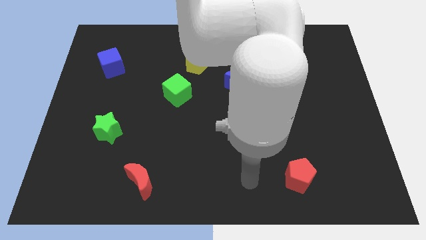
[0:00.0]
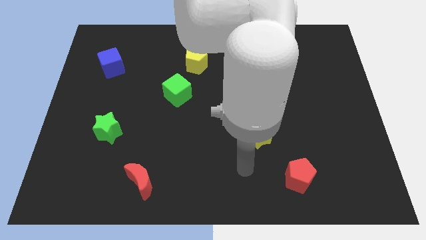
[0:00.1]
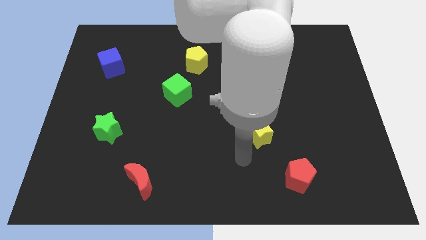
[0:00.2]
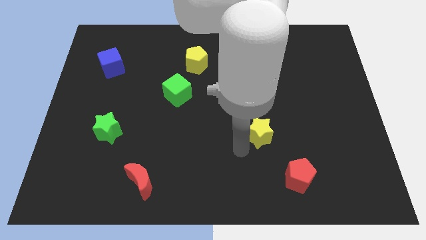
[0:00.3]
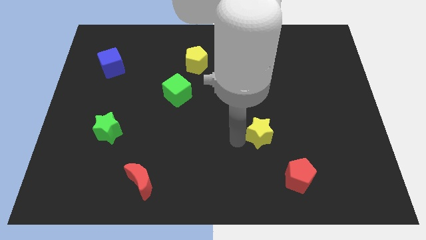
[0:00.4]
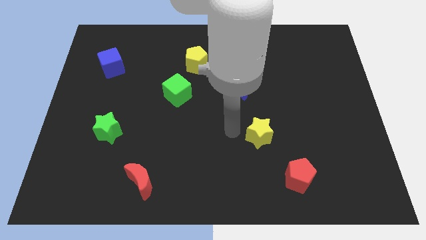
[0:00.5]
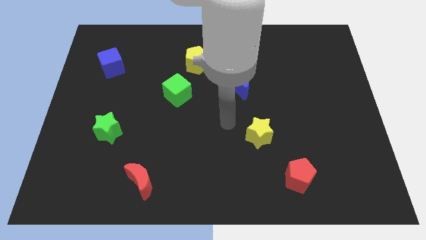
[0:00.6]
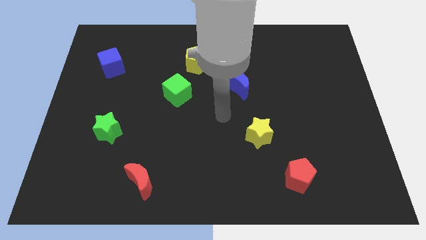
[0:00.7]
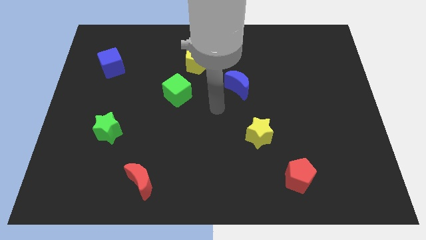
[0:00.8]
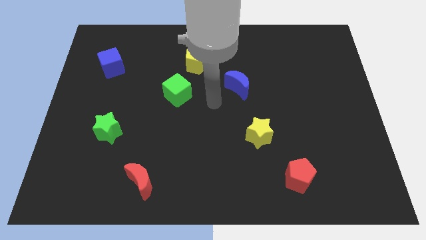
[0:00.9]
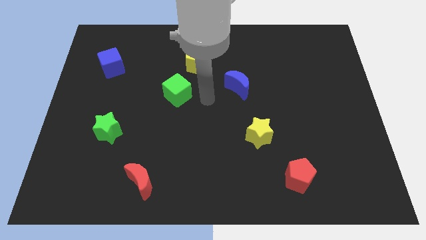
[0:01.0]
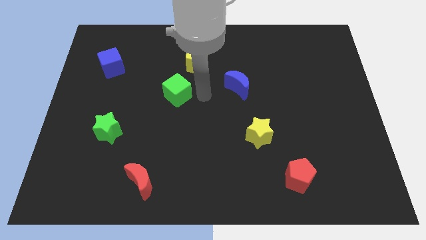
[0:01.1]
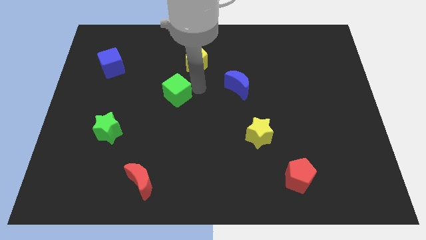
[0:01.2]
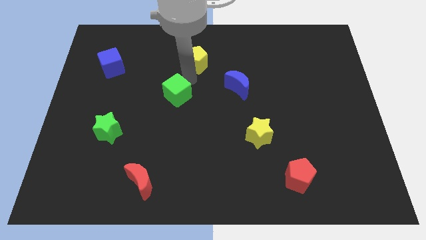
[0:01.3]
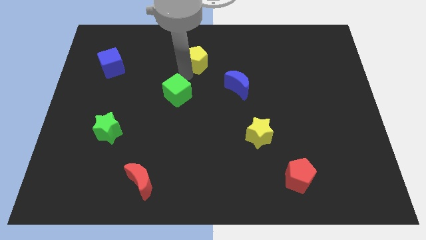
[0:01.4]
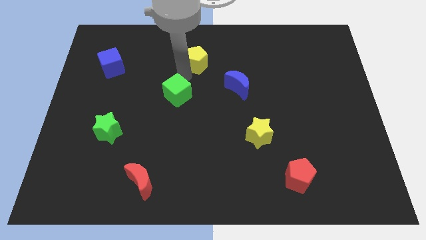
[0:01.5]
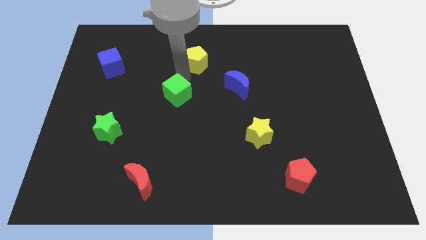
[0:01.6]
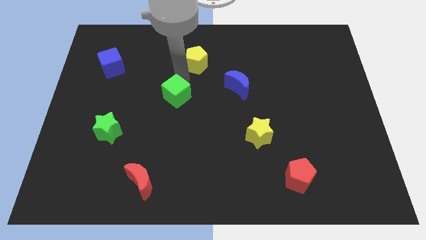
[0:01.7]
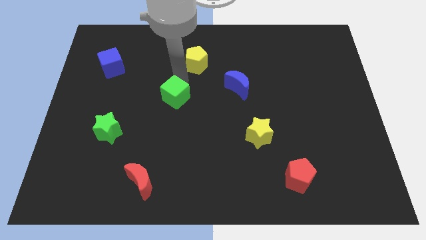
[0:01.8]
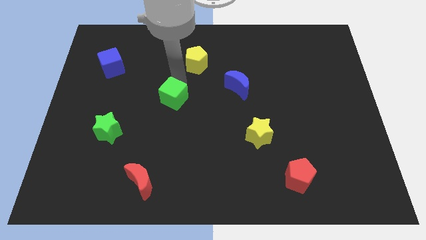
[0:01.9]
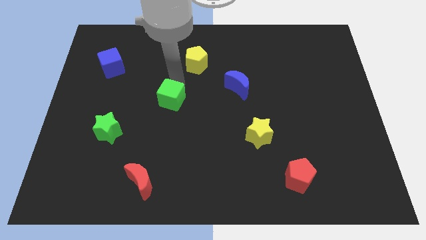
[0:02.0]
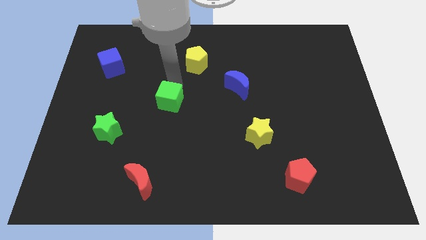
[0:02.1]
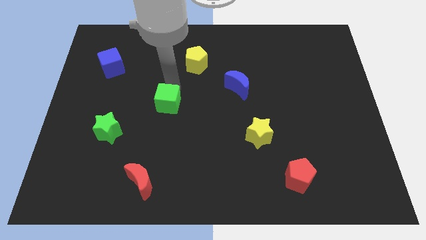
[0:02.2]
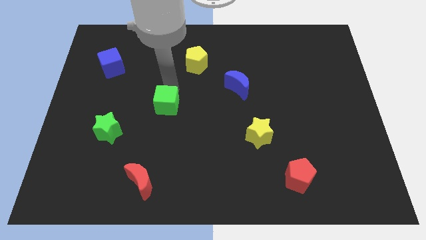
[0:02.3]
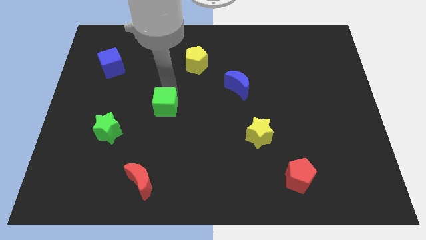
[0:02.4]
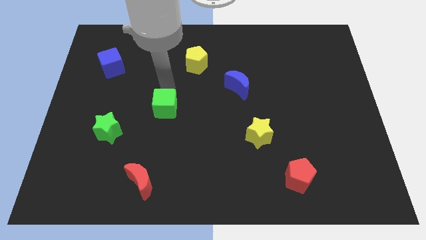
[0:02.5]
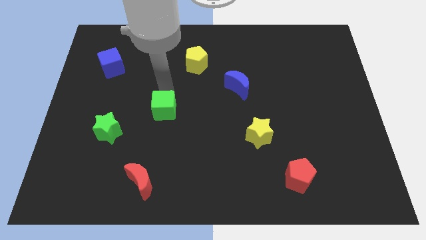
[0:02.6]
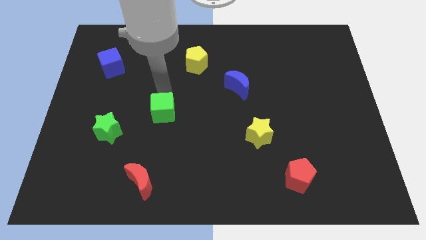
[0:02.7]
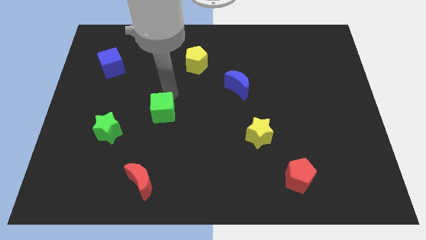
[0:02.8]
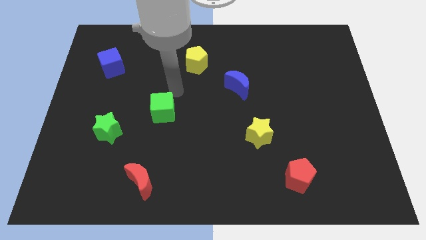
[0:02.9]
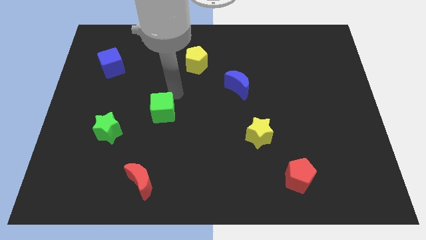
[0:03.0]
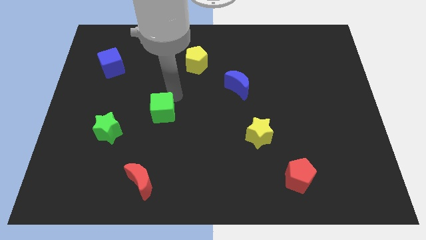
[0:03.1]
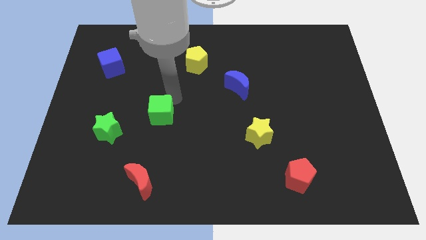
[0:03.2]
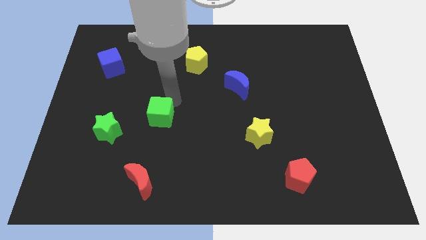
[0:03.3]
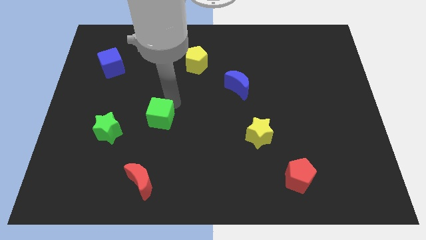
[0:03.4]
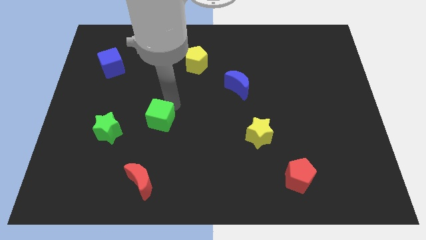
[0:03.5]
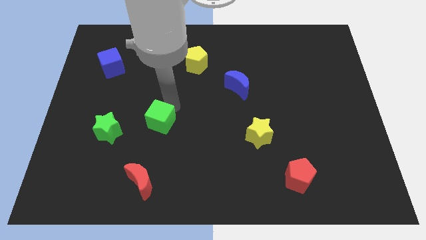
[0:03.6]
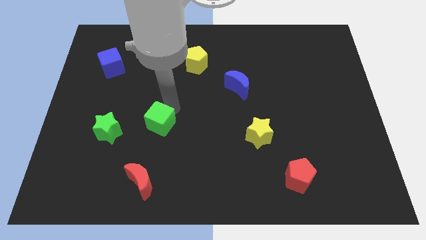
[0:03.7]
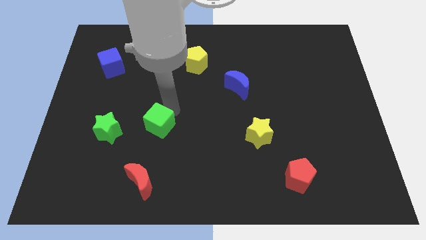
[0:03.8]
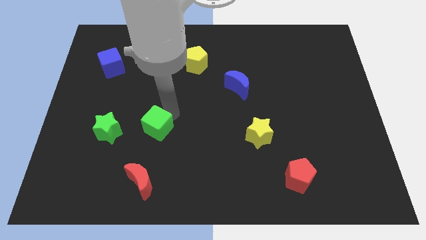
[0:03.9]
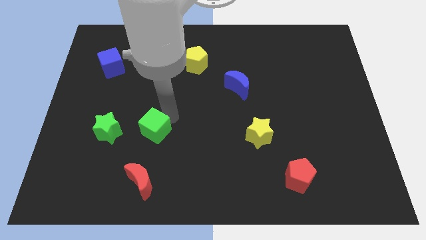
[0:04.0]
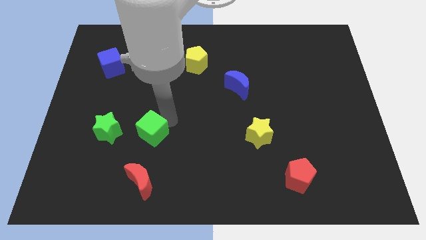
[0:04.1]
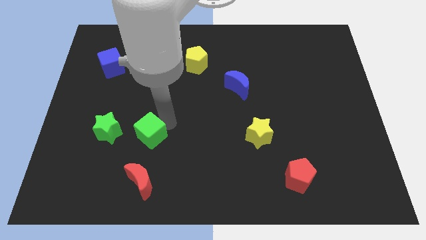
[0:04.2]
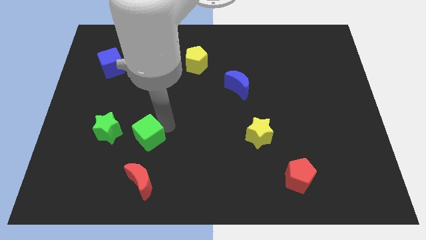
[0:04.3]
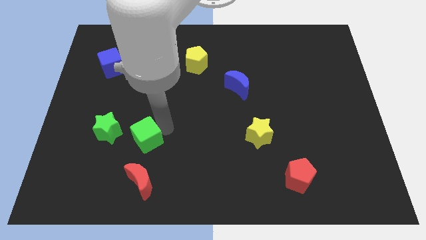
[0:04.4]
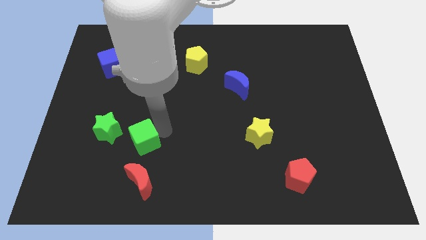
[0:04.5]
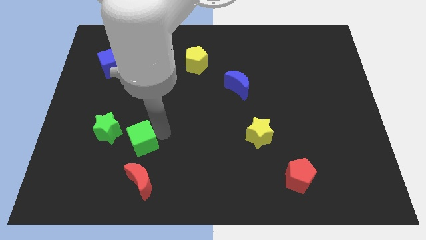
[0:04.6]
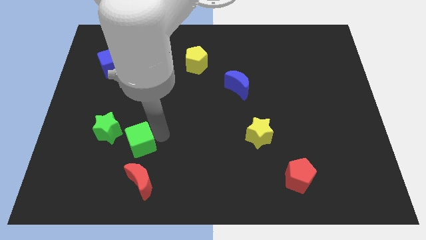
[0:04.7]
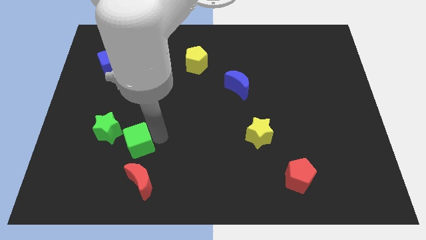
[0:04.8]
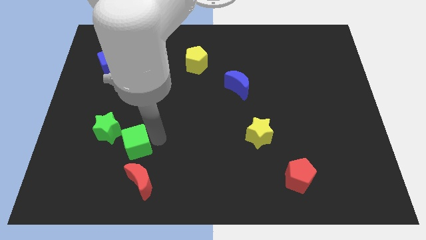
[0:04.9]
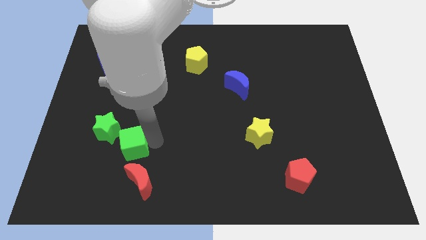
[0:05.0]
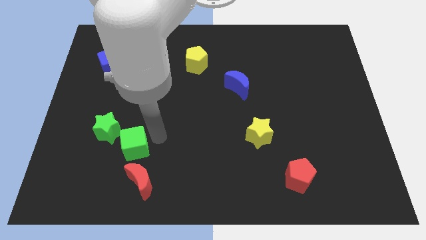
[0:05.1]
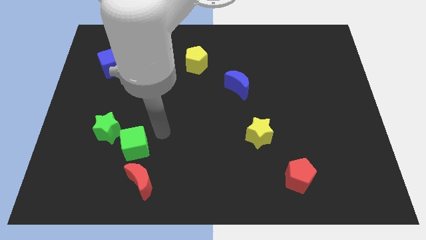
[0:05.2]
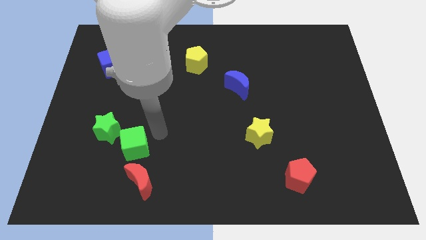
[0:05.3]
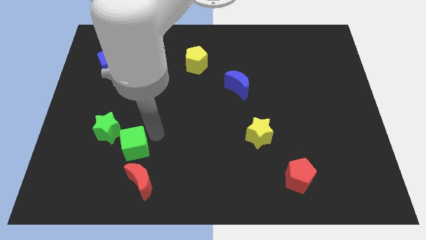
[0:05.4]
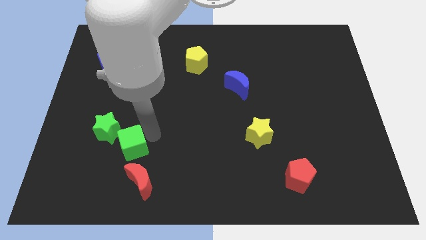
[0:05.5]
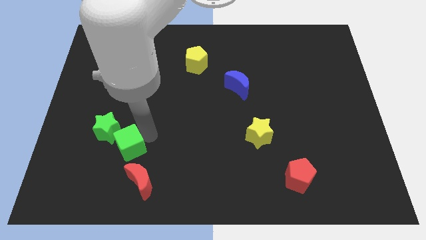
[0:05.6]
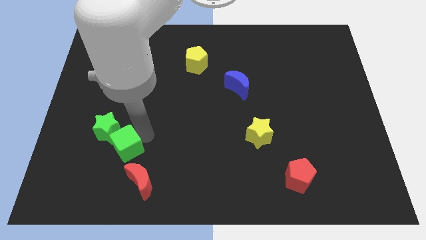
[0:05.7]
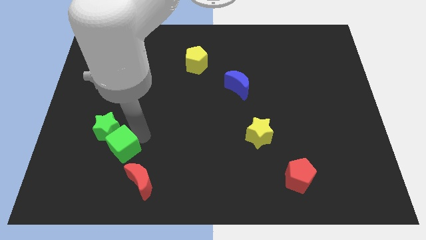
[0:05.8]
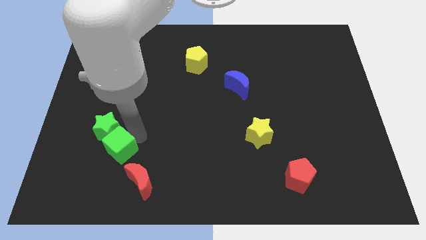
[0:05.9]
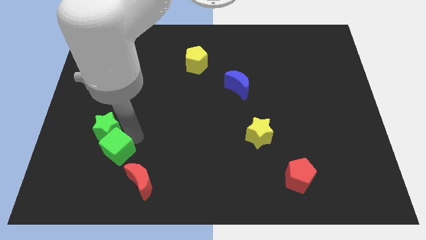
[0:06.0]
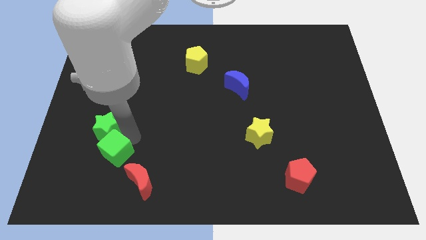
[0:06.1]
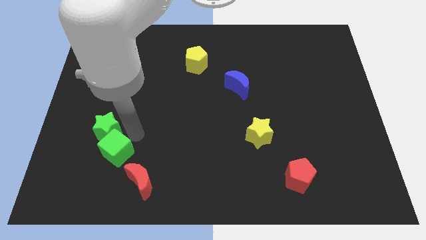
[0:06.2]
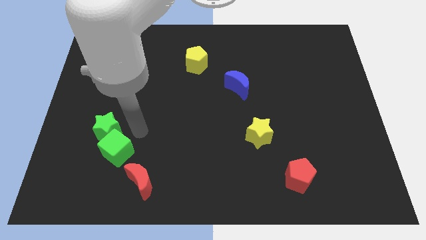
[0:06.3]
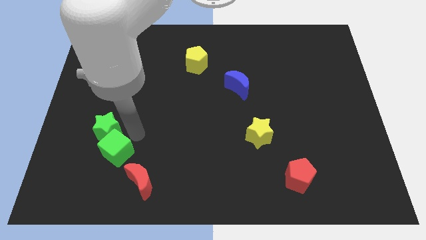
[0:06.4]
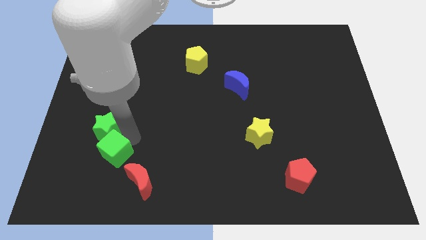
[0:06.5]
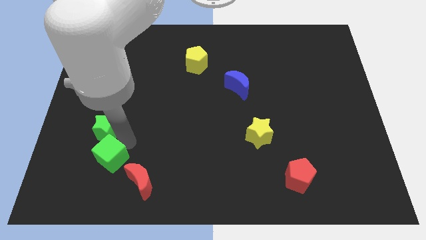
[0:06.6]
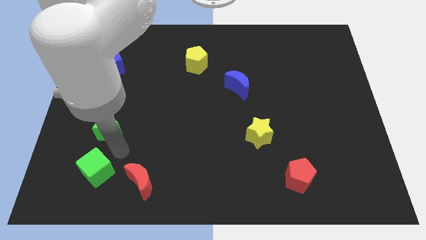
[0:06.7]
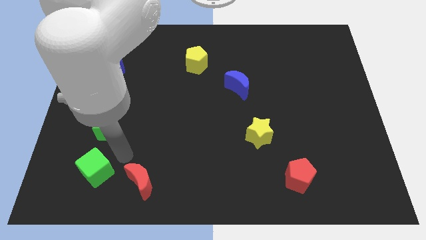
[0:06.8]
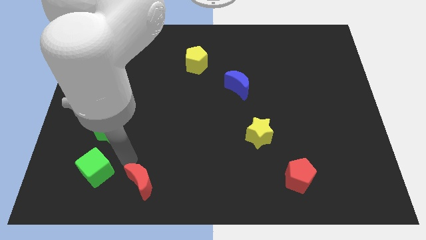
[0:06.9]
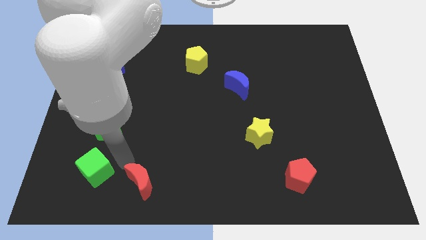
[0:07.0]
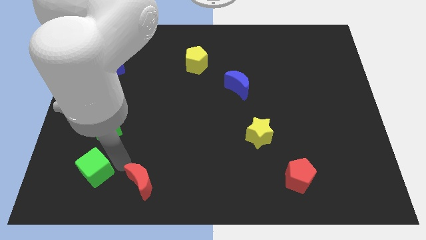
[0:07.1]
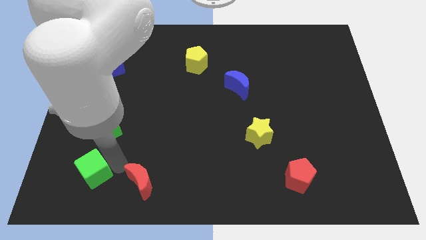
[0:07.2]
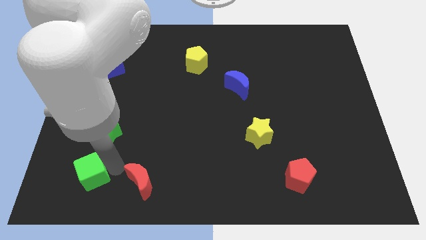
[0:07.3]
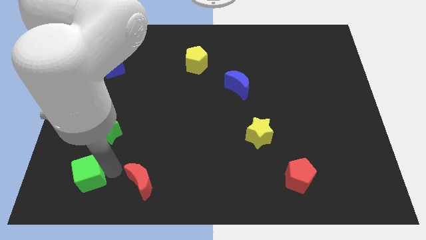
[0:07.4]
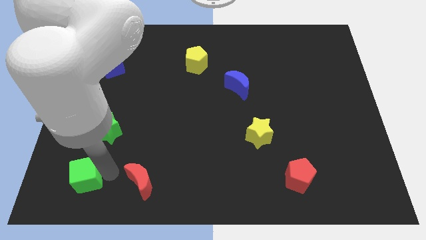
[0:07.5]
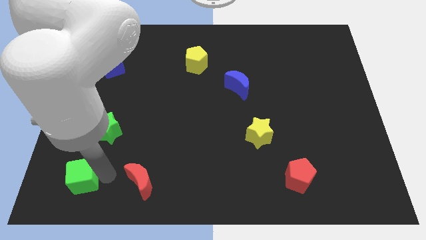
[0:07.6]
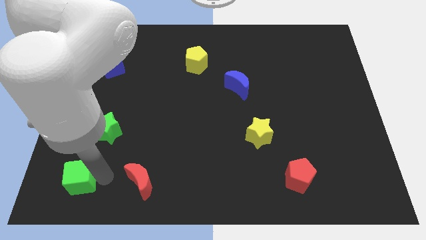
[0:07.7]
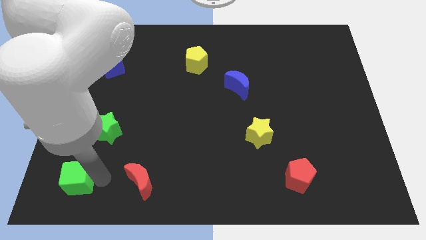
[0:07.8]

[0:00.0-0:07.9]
push the green cube to the bottom left
